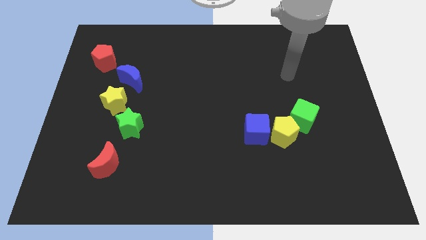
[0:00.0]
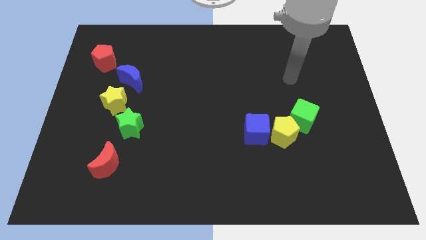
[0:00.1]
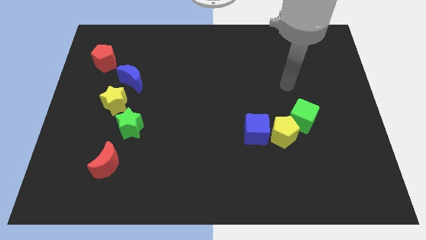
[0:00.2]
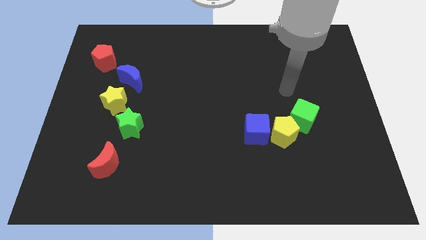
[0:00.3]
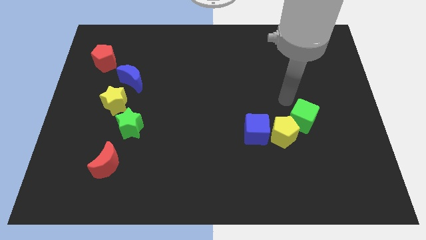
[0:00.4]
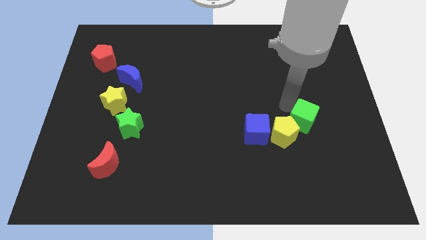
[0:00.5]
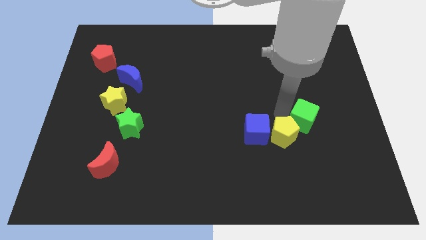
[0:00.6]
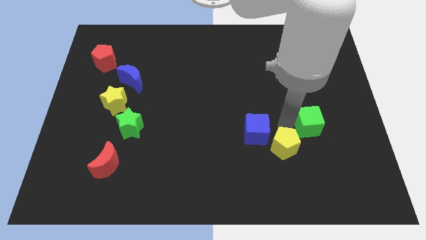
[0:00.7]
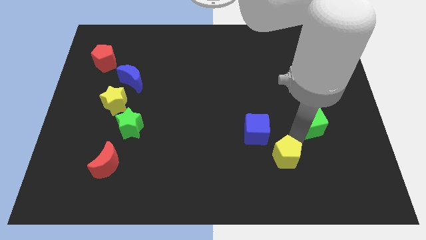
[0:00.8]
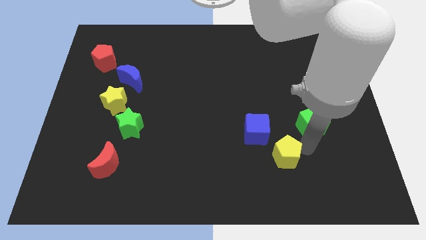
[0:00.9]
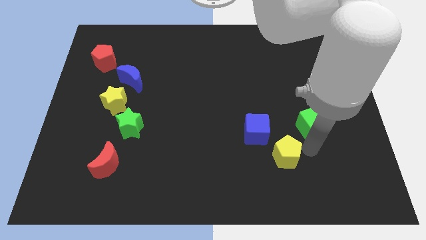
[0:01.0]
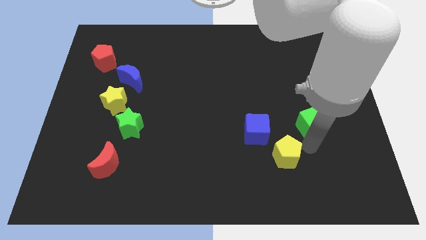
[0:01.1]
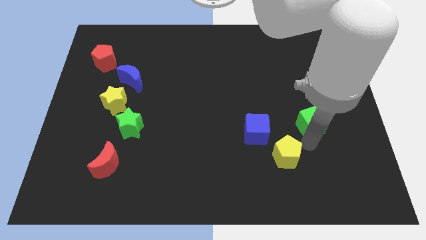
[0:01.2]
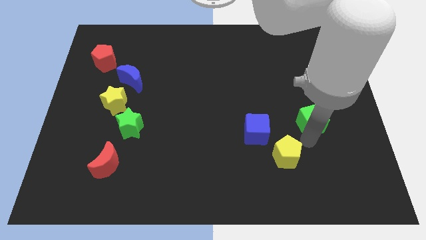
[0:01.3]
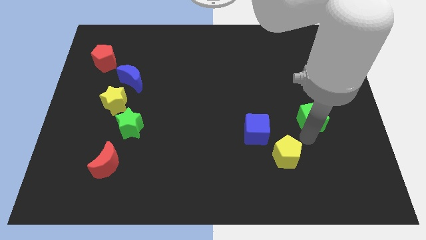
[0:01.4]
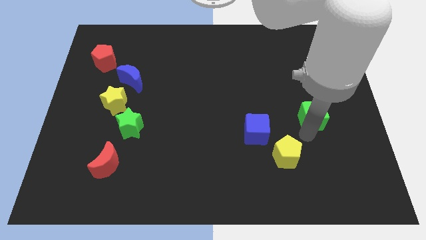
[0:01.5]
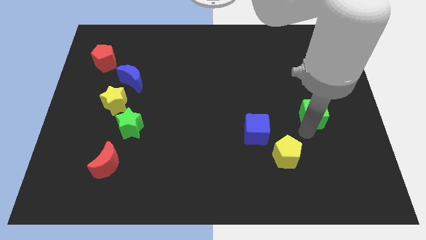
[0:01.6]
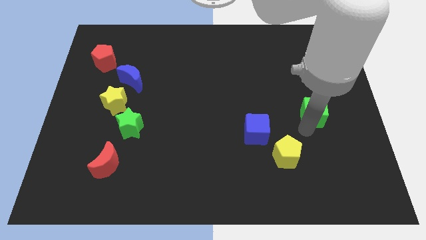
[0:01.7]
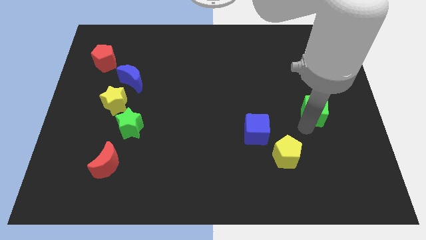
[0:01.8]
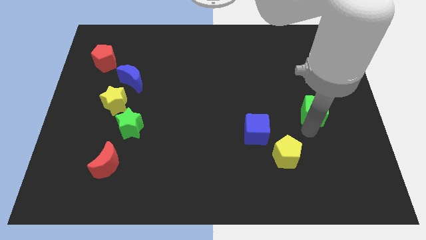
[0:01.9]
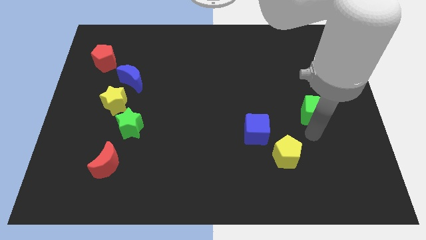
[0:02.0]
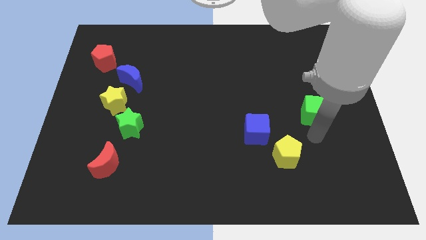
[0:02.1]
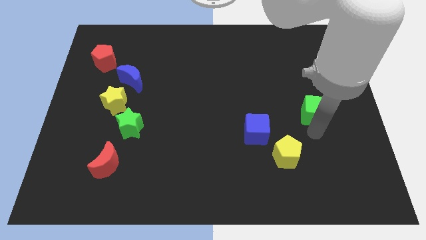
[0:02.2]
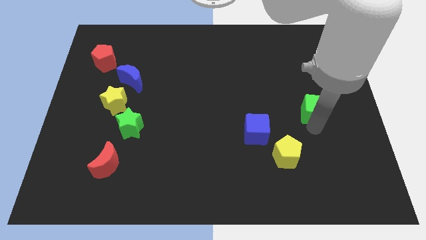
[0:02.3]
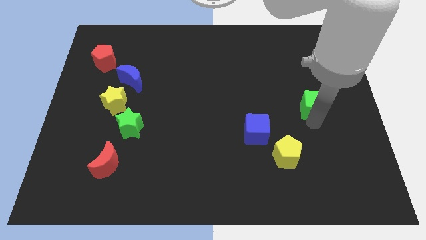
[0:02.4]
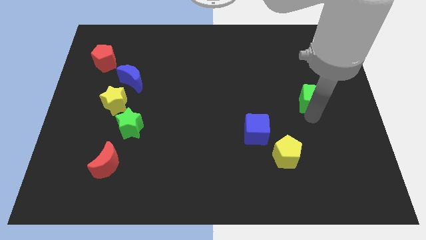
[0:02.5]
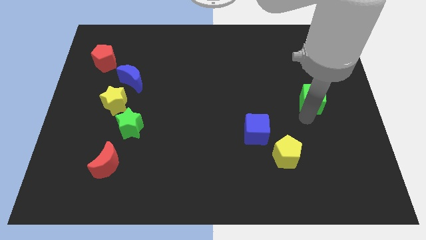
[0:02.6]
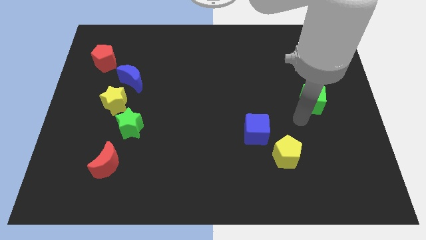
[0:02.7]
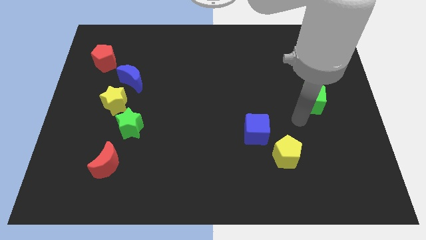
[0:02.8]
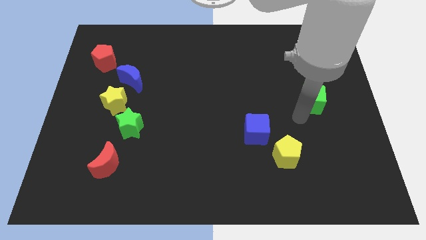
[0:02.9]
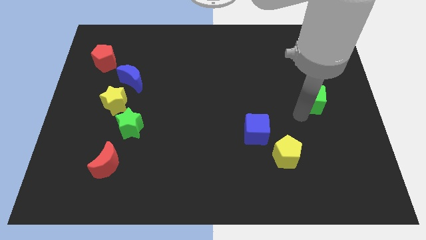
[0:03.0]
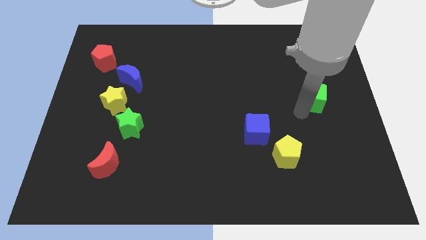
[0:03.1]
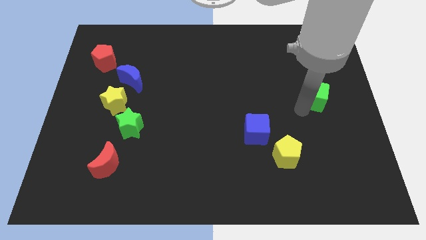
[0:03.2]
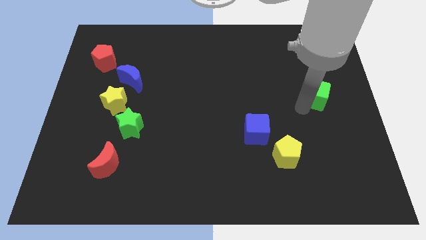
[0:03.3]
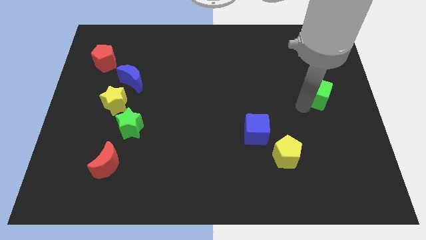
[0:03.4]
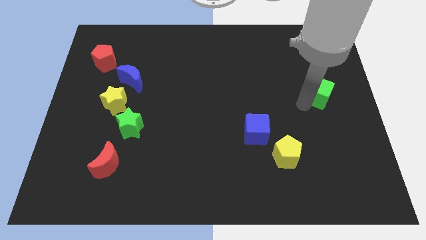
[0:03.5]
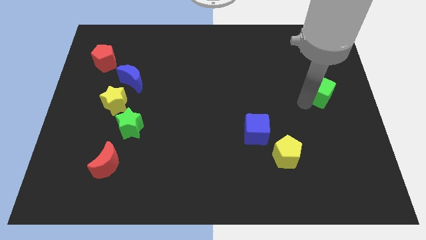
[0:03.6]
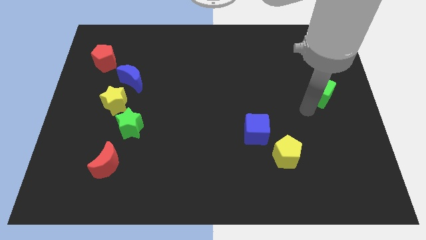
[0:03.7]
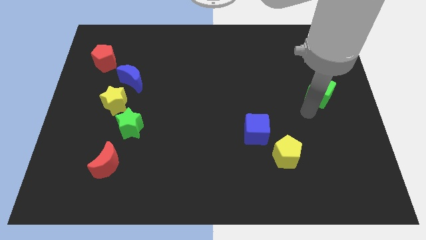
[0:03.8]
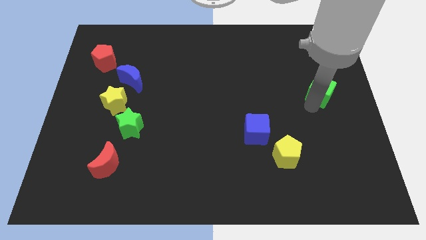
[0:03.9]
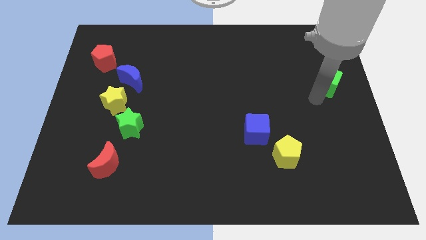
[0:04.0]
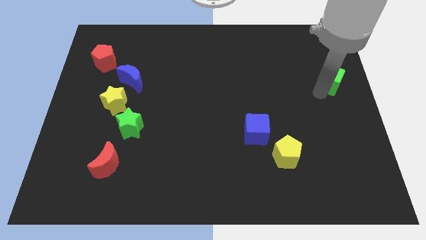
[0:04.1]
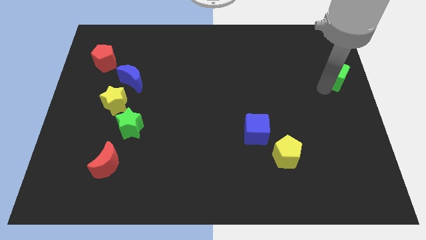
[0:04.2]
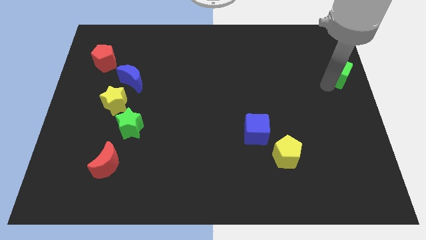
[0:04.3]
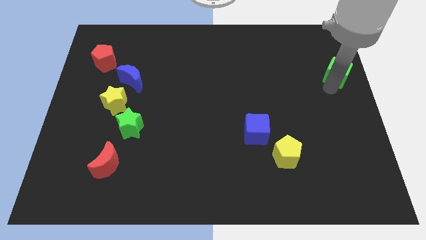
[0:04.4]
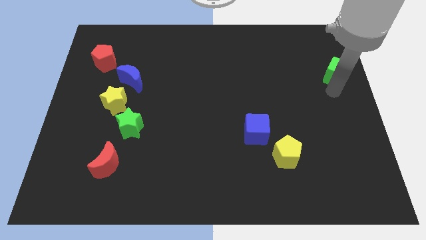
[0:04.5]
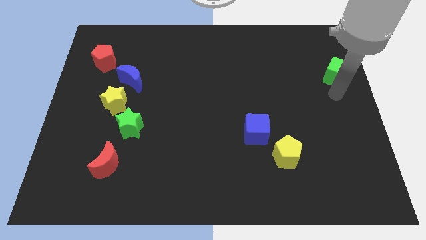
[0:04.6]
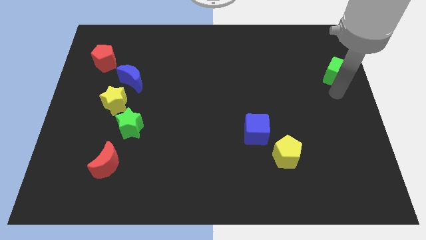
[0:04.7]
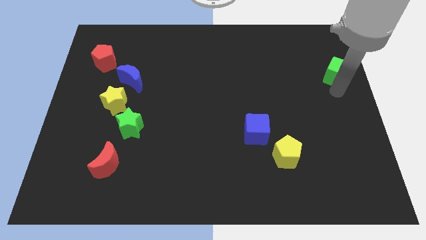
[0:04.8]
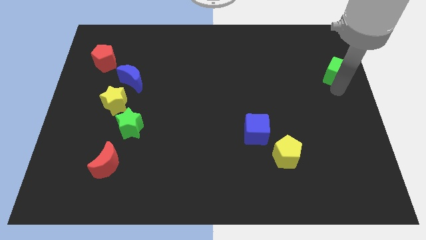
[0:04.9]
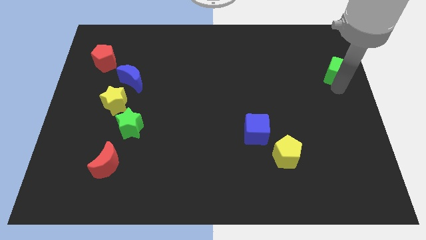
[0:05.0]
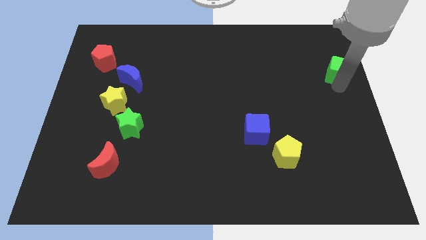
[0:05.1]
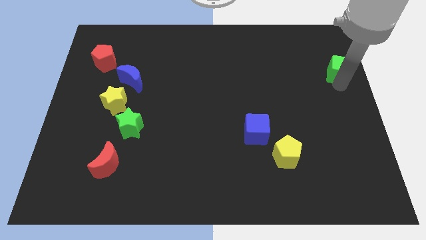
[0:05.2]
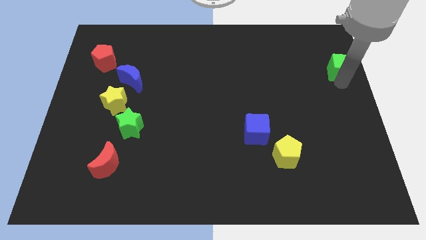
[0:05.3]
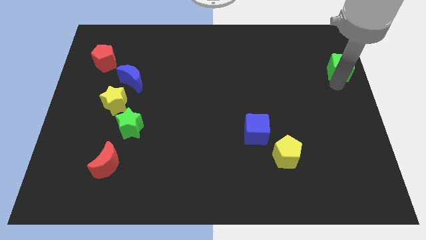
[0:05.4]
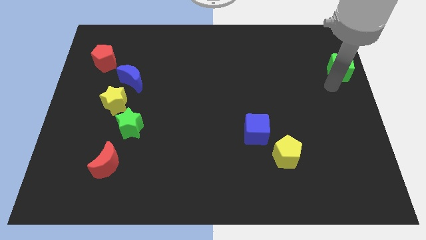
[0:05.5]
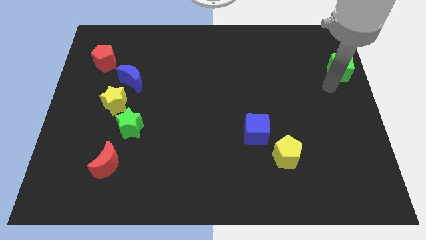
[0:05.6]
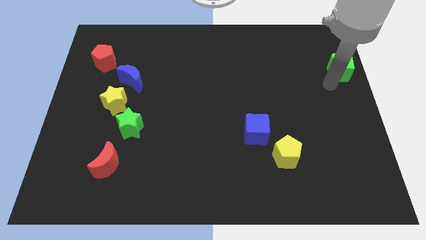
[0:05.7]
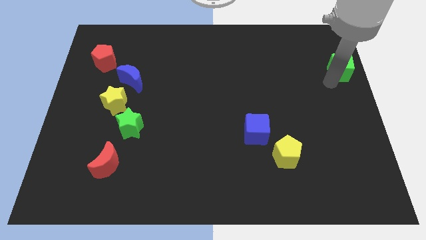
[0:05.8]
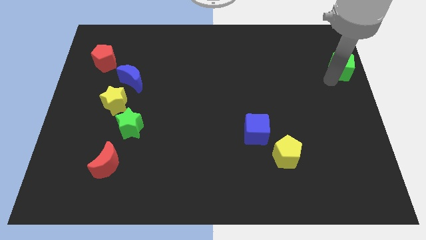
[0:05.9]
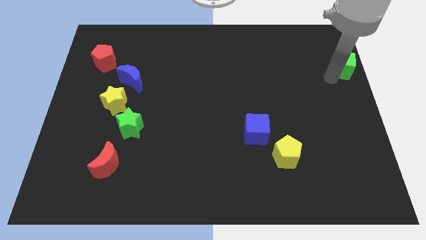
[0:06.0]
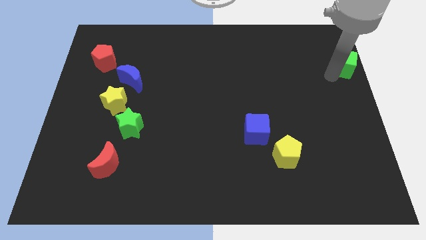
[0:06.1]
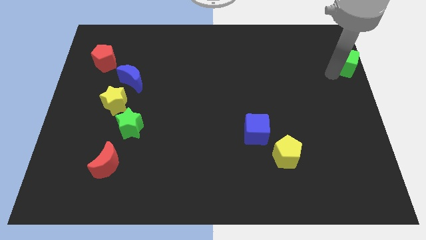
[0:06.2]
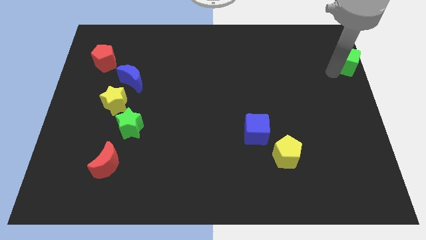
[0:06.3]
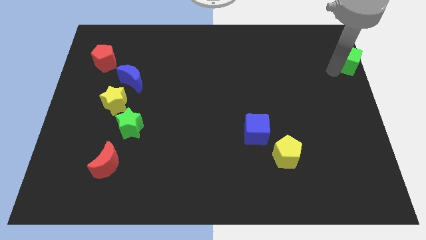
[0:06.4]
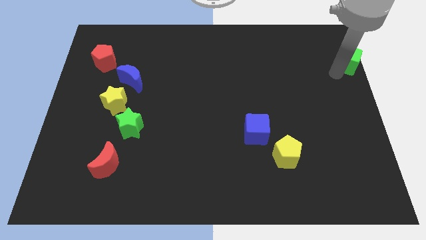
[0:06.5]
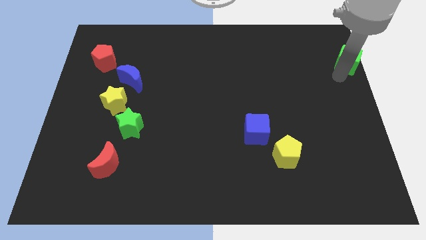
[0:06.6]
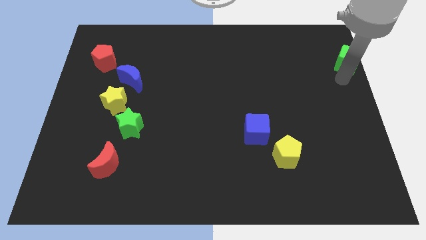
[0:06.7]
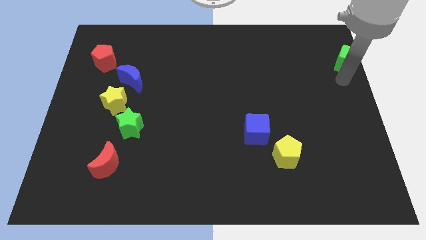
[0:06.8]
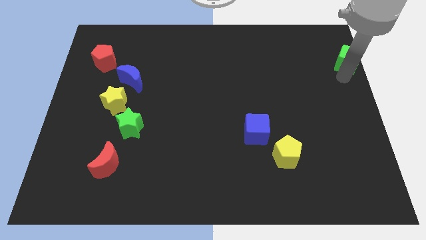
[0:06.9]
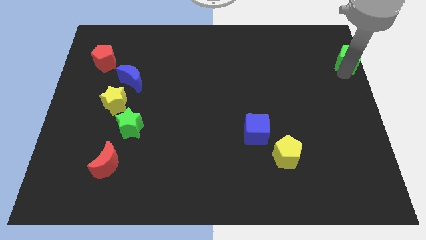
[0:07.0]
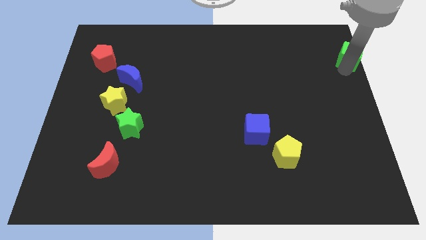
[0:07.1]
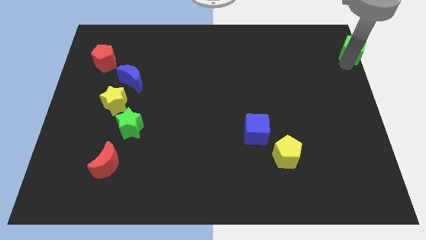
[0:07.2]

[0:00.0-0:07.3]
push the green cube to the top right corner
